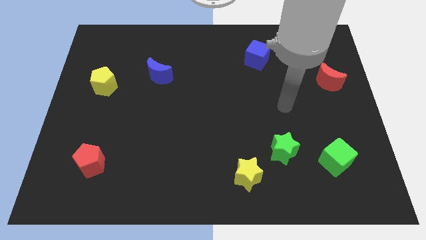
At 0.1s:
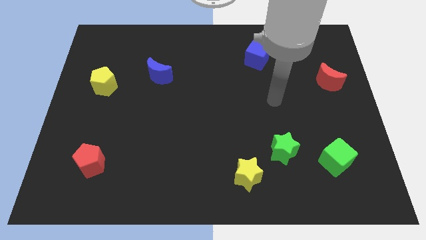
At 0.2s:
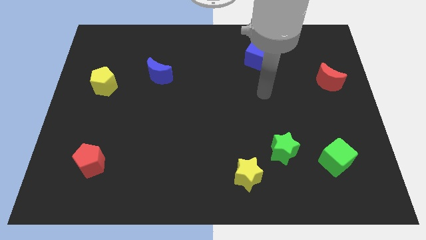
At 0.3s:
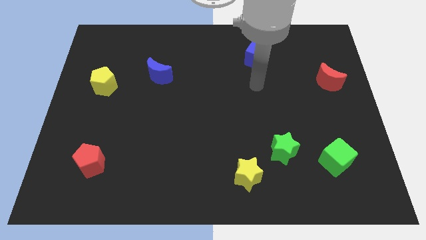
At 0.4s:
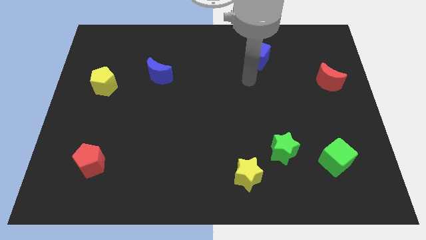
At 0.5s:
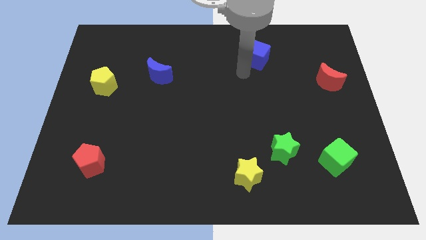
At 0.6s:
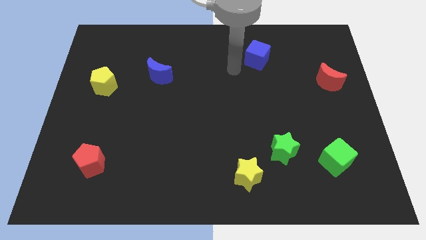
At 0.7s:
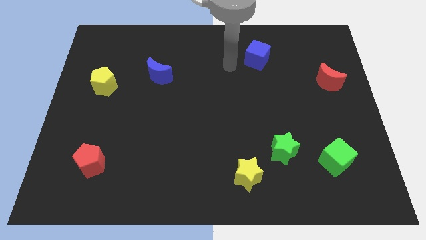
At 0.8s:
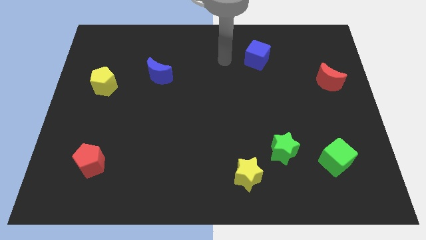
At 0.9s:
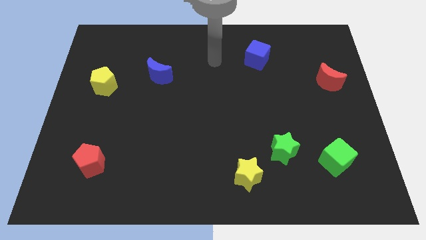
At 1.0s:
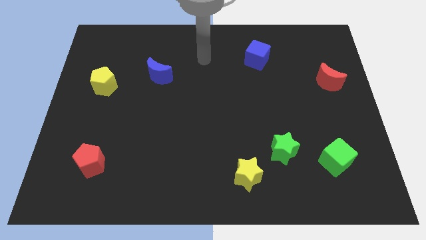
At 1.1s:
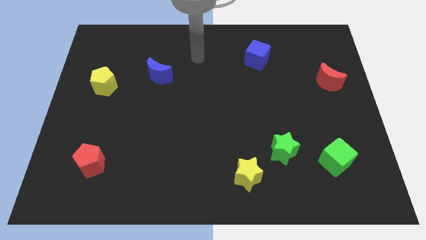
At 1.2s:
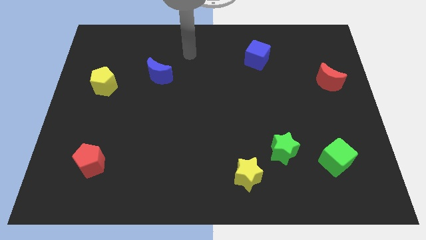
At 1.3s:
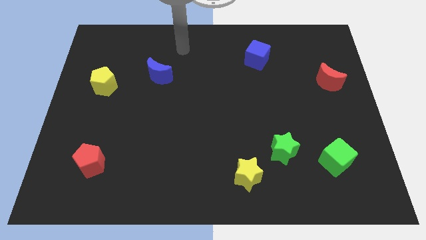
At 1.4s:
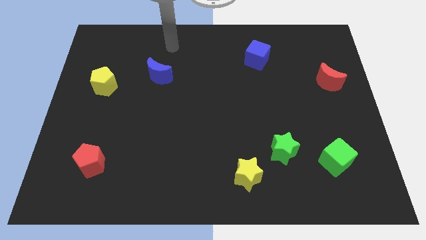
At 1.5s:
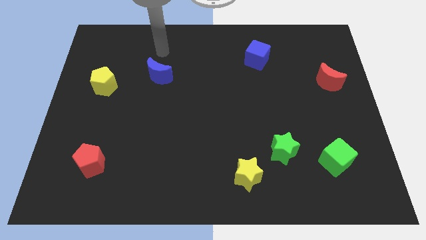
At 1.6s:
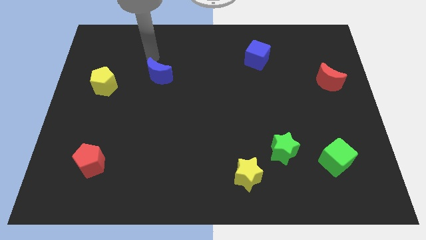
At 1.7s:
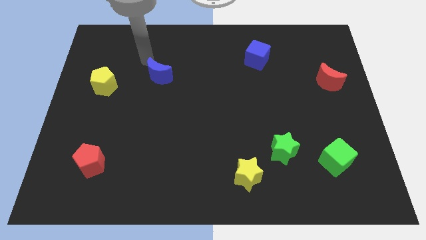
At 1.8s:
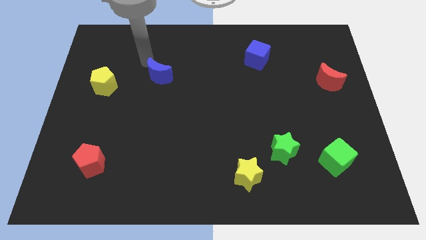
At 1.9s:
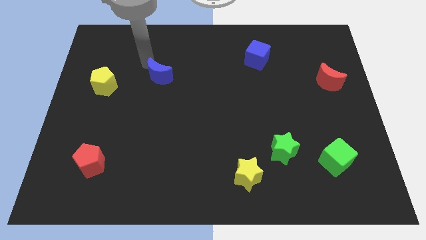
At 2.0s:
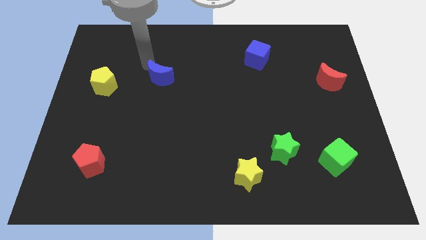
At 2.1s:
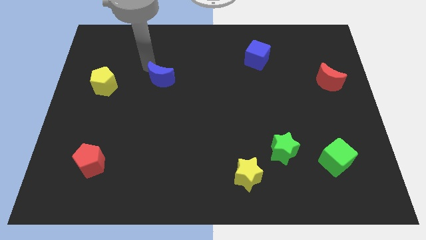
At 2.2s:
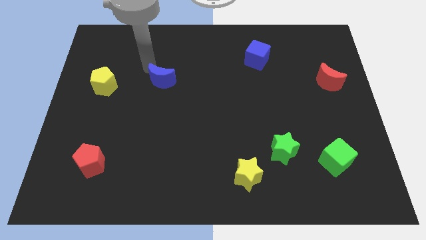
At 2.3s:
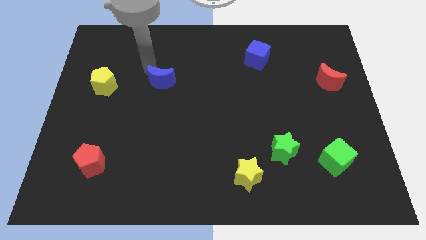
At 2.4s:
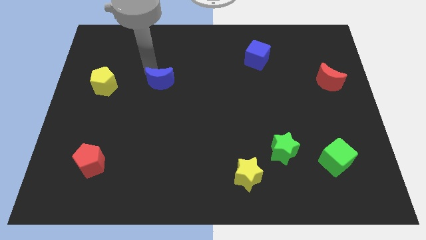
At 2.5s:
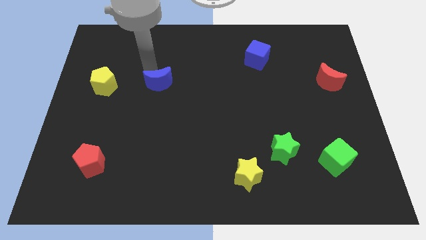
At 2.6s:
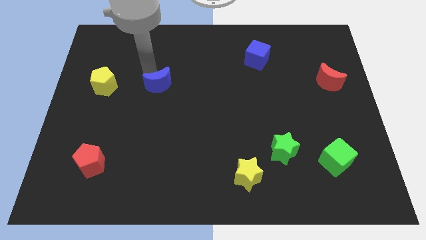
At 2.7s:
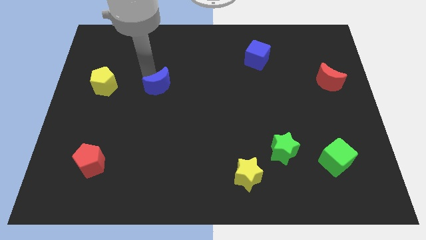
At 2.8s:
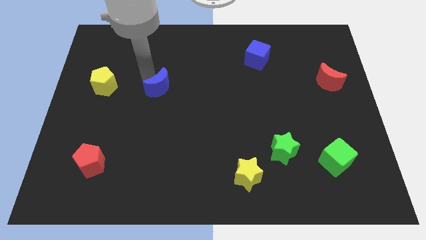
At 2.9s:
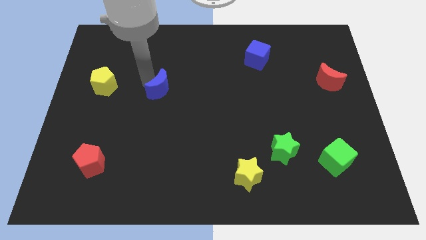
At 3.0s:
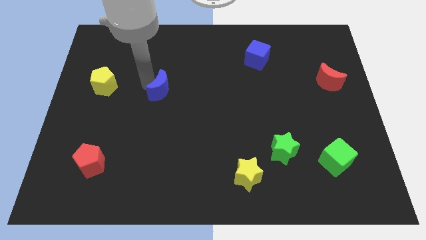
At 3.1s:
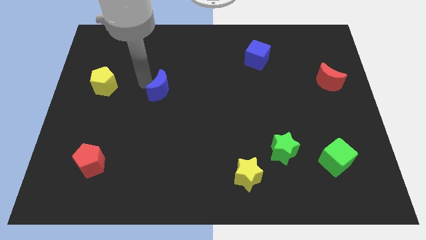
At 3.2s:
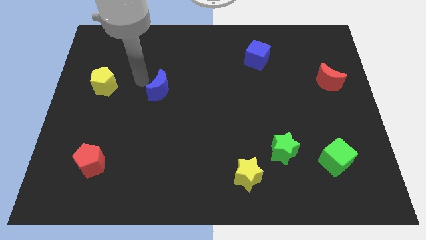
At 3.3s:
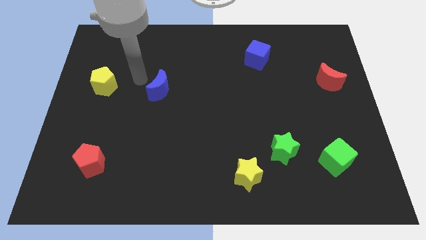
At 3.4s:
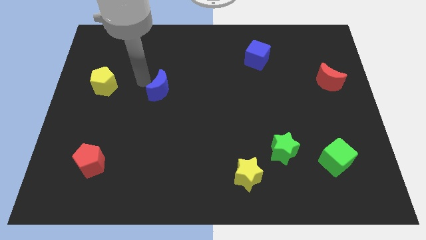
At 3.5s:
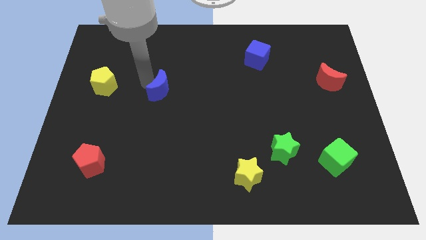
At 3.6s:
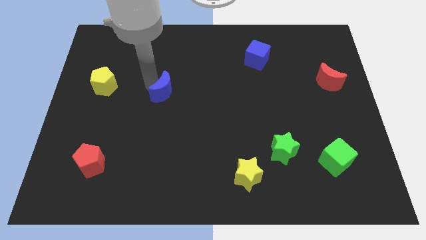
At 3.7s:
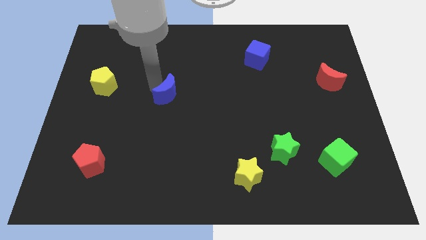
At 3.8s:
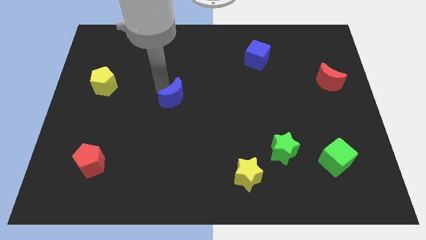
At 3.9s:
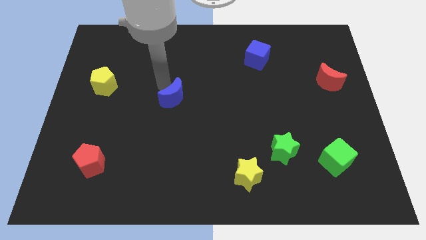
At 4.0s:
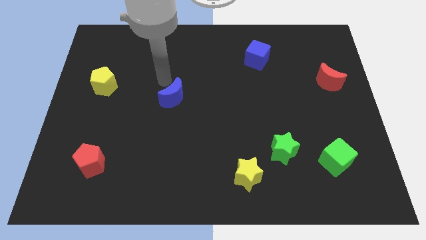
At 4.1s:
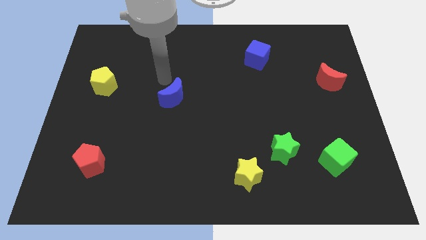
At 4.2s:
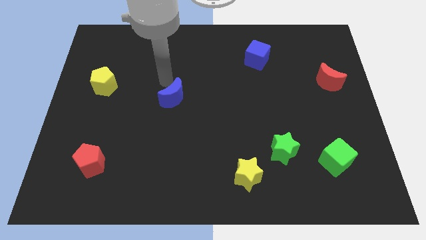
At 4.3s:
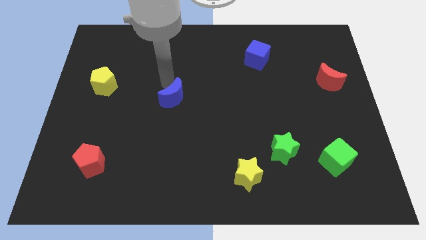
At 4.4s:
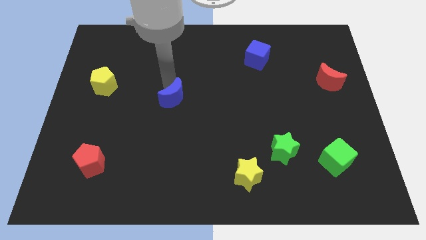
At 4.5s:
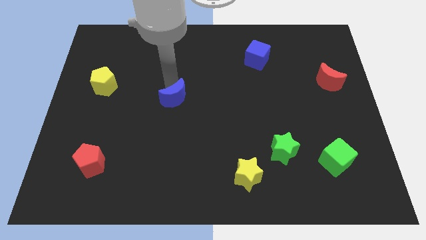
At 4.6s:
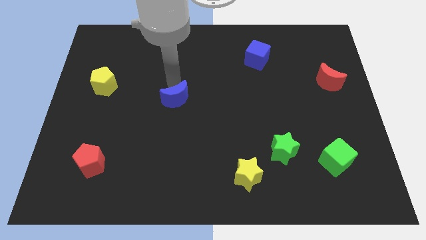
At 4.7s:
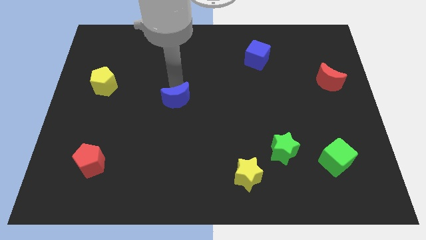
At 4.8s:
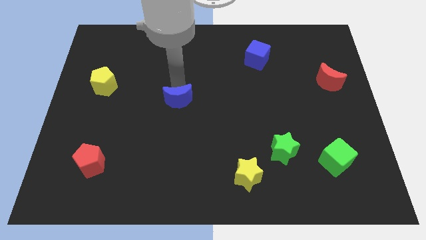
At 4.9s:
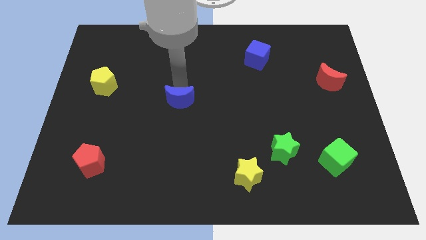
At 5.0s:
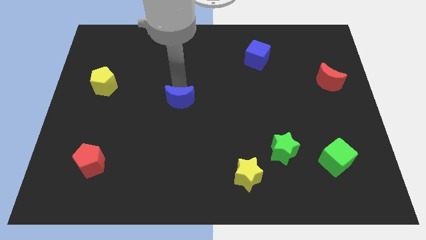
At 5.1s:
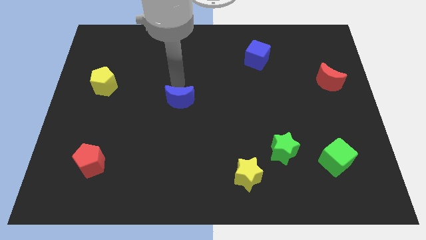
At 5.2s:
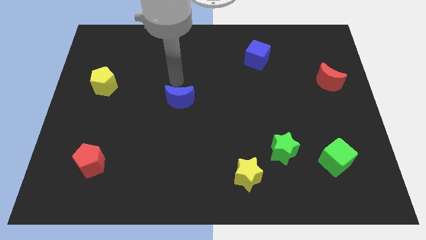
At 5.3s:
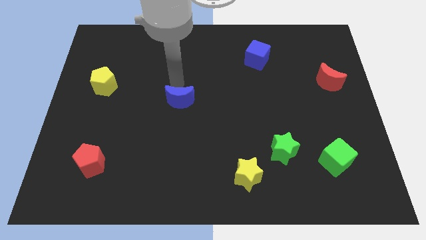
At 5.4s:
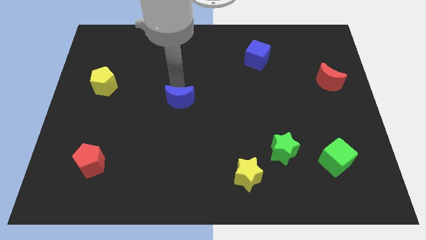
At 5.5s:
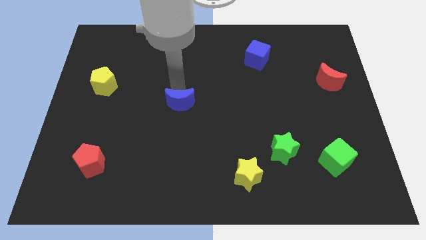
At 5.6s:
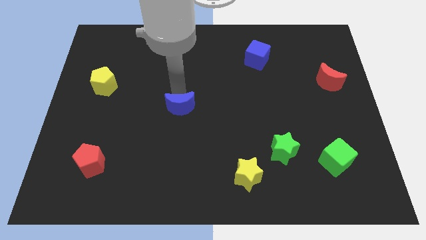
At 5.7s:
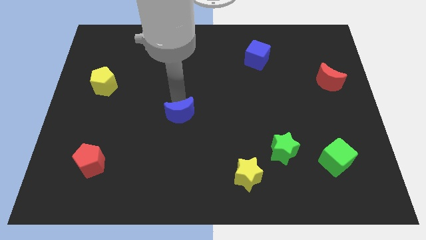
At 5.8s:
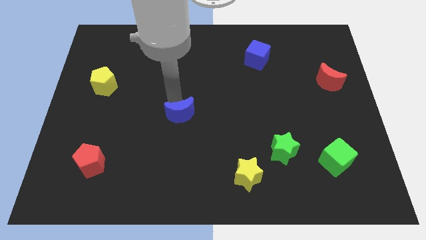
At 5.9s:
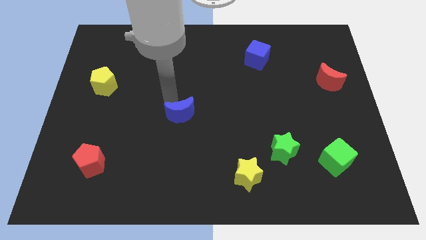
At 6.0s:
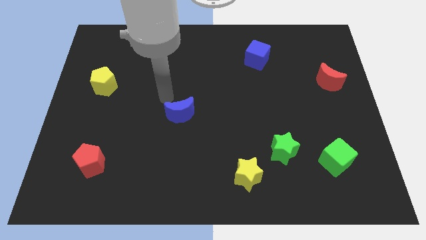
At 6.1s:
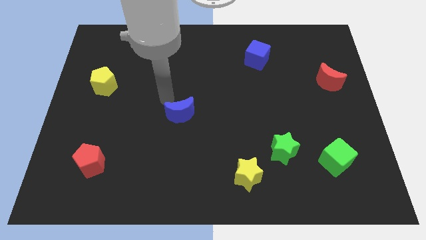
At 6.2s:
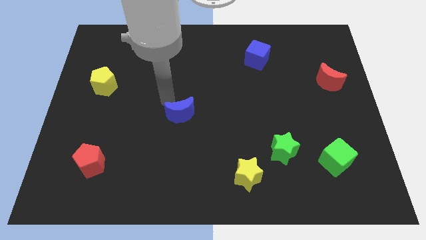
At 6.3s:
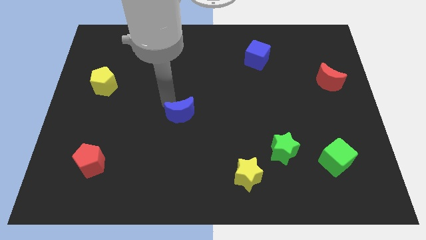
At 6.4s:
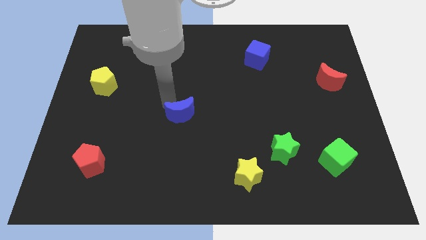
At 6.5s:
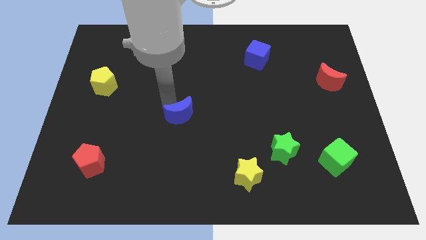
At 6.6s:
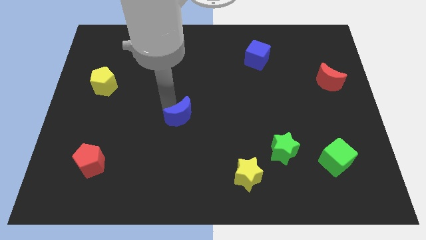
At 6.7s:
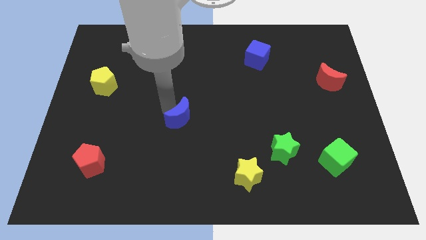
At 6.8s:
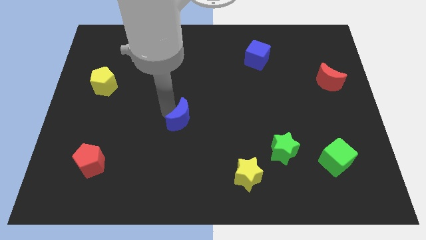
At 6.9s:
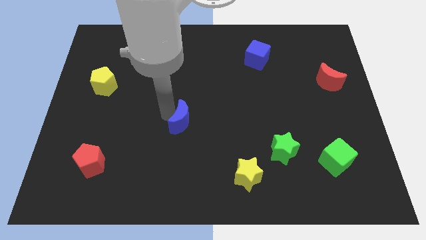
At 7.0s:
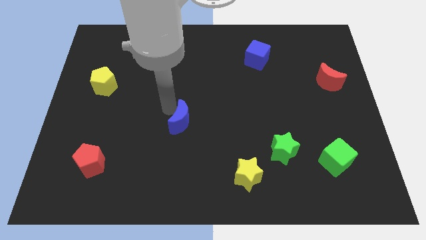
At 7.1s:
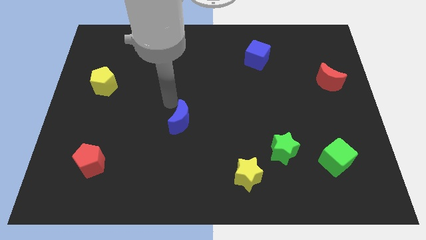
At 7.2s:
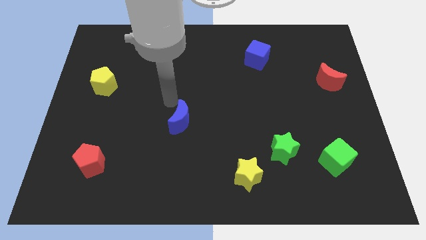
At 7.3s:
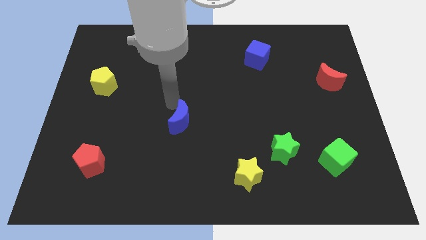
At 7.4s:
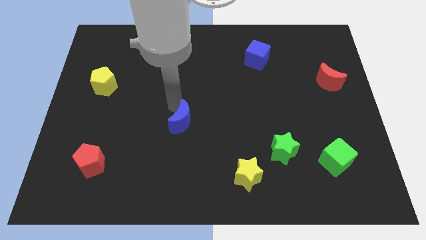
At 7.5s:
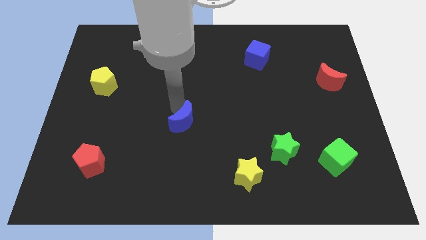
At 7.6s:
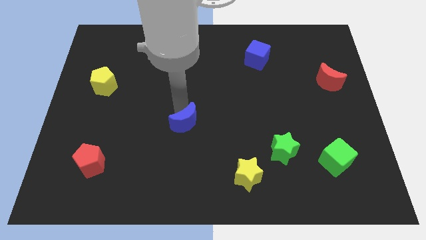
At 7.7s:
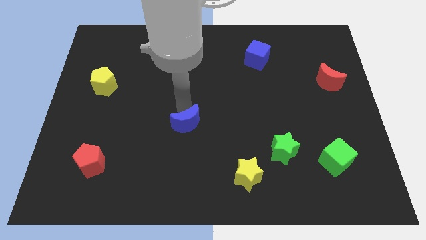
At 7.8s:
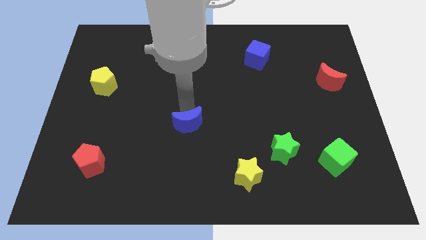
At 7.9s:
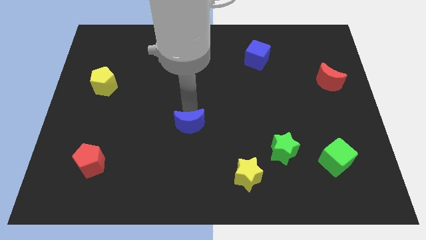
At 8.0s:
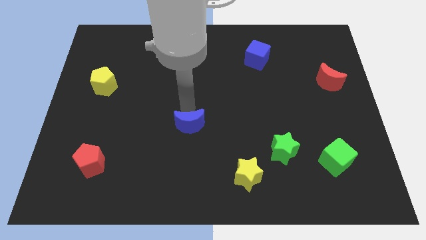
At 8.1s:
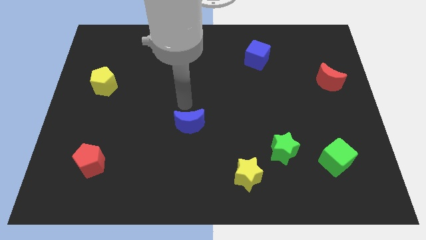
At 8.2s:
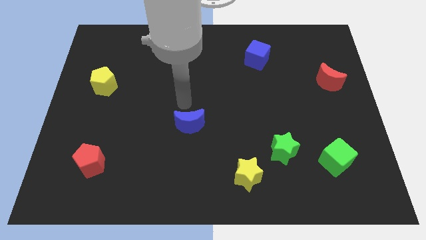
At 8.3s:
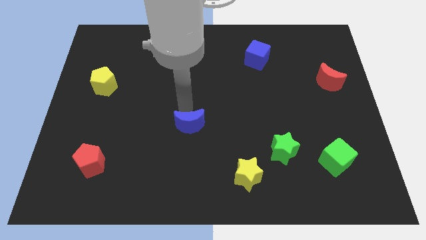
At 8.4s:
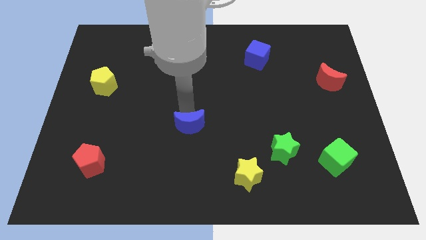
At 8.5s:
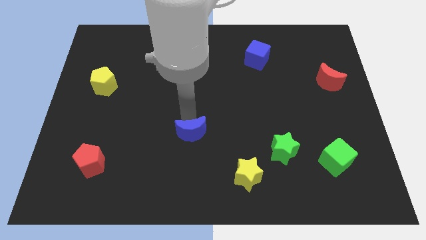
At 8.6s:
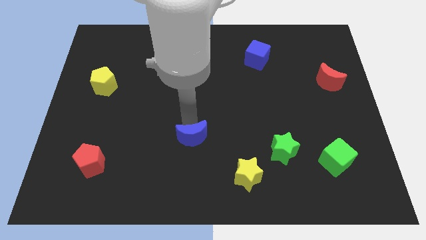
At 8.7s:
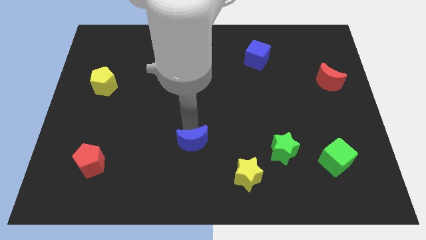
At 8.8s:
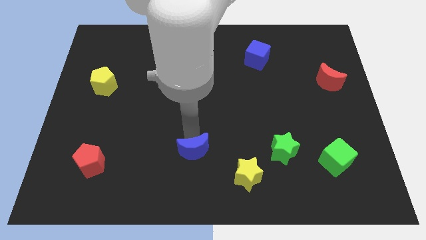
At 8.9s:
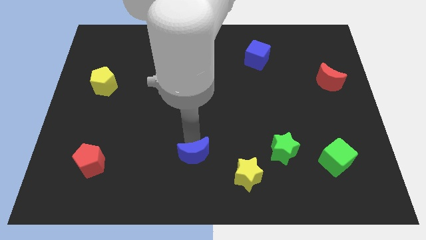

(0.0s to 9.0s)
push the blue moon to the bottom side
